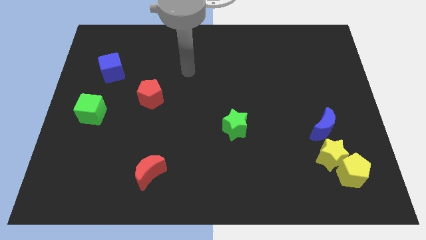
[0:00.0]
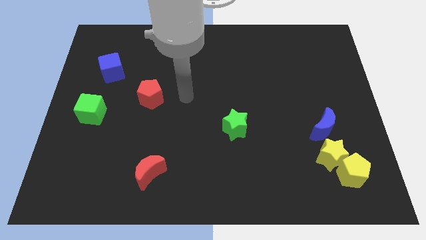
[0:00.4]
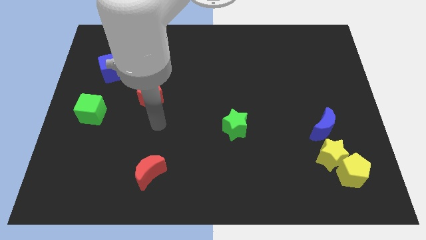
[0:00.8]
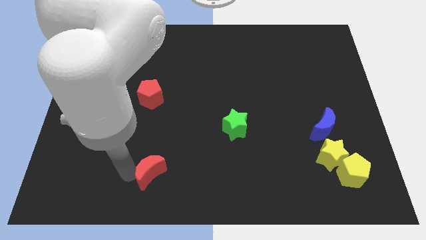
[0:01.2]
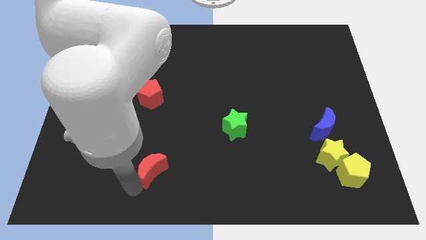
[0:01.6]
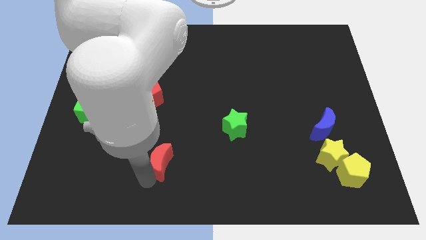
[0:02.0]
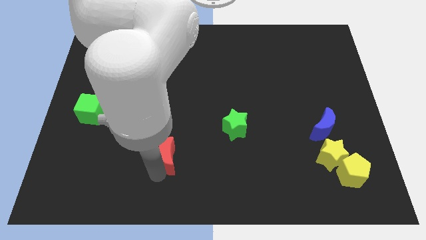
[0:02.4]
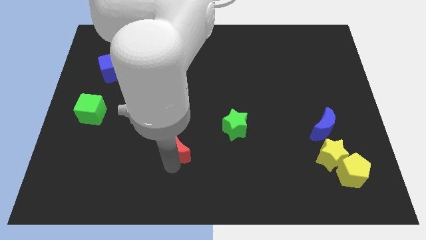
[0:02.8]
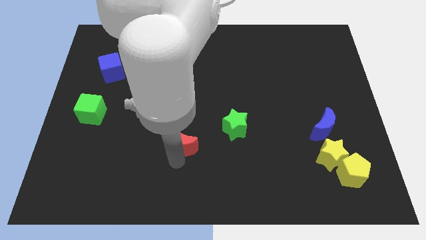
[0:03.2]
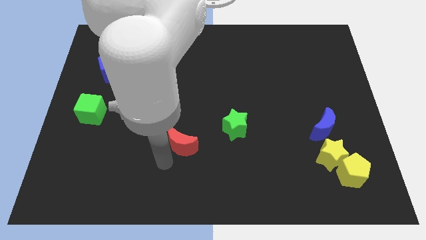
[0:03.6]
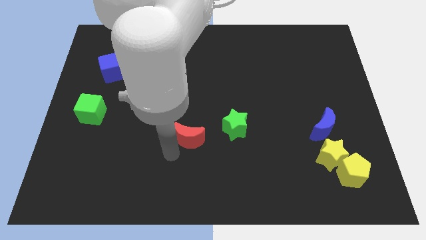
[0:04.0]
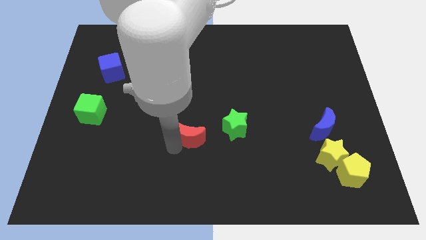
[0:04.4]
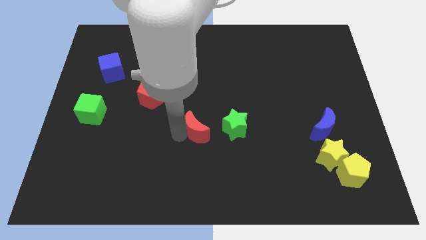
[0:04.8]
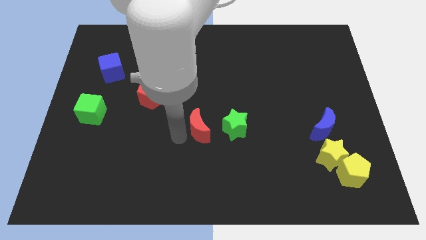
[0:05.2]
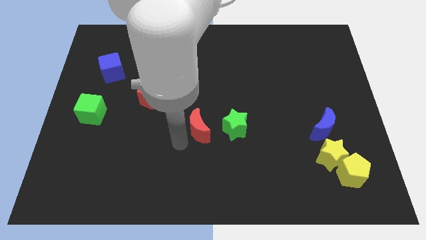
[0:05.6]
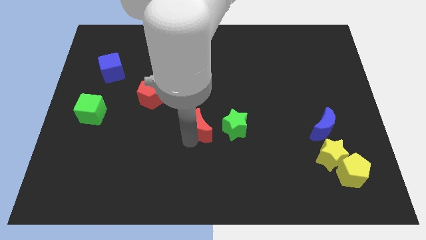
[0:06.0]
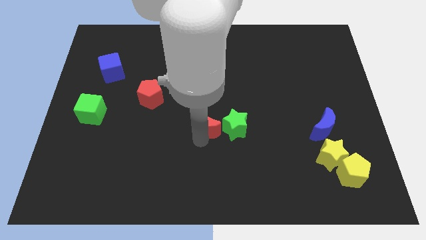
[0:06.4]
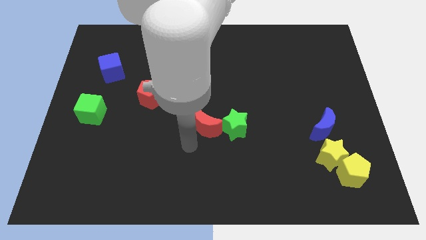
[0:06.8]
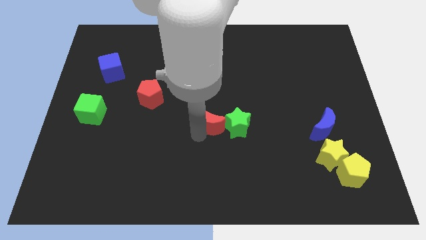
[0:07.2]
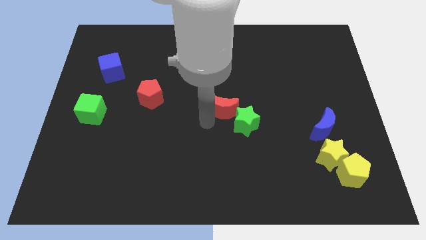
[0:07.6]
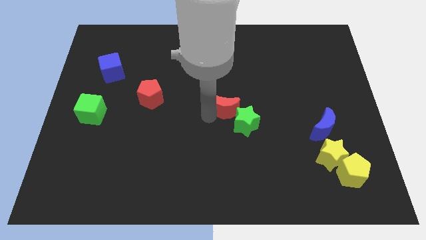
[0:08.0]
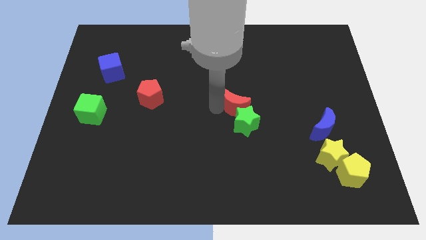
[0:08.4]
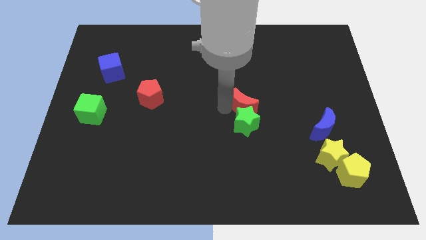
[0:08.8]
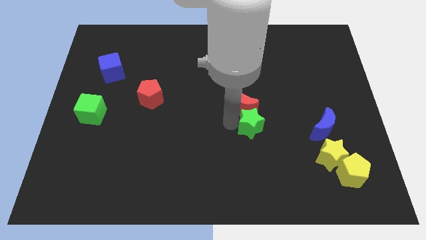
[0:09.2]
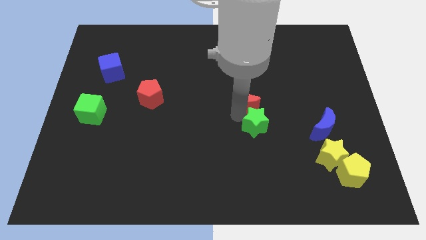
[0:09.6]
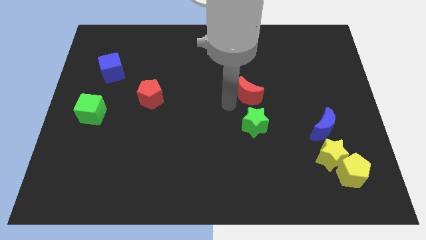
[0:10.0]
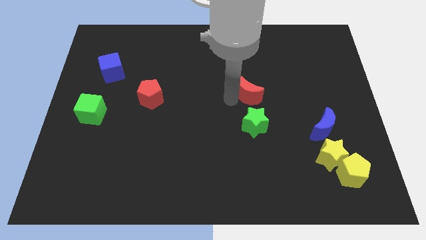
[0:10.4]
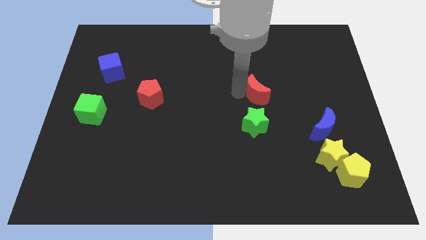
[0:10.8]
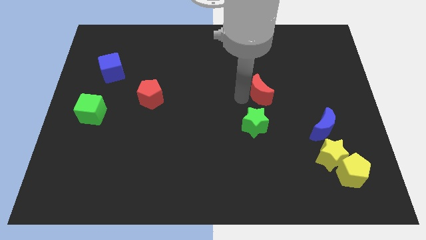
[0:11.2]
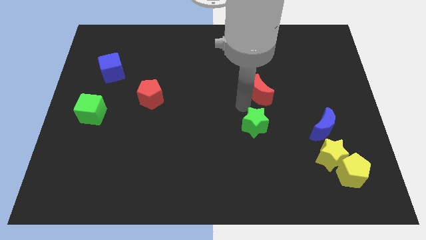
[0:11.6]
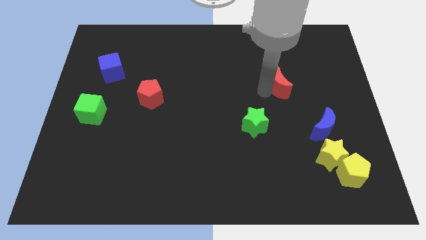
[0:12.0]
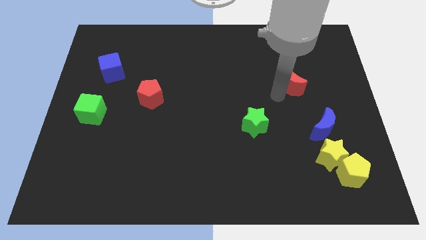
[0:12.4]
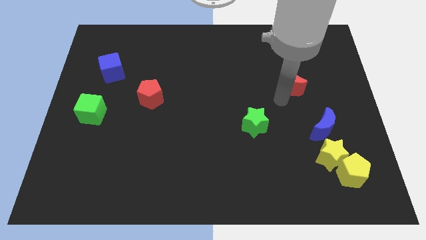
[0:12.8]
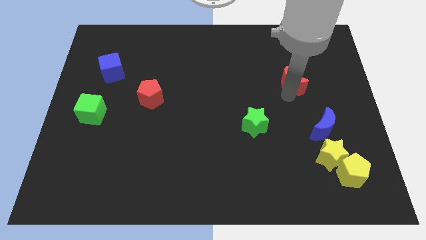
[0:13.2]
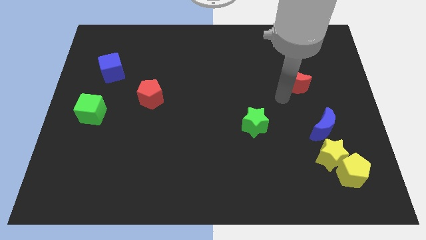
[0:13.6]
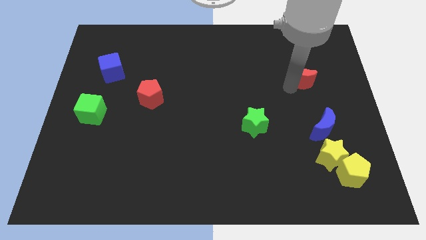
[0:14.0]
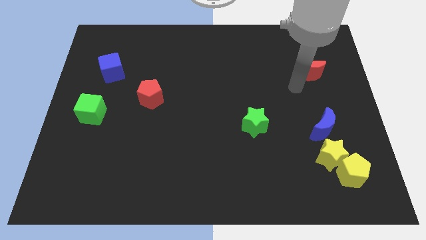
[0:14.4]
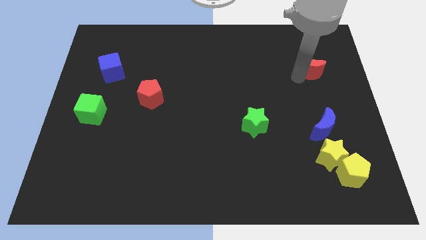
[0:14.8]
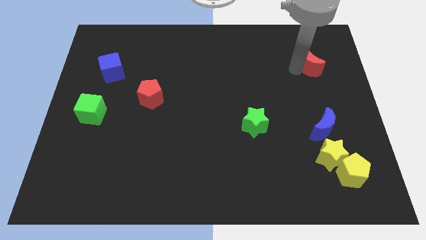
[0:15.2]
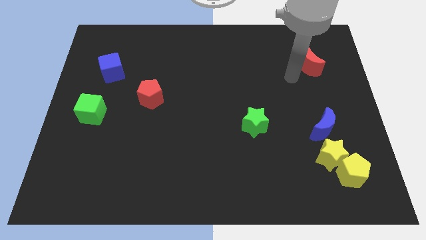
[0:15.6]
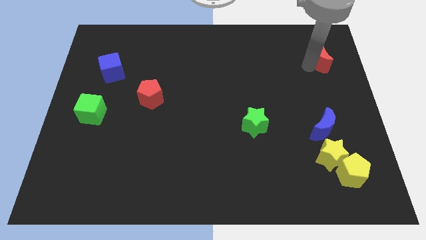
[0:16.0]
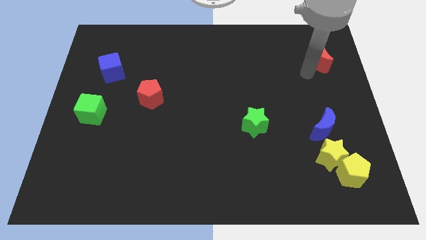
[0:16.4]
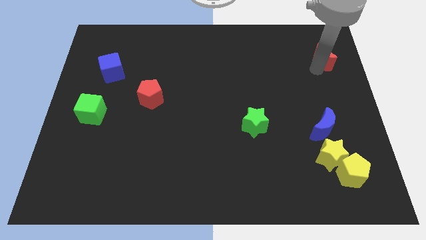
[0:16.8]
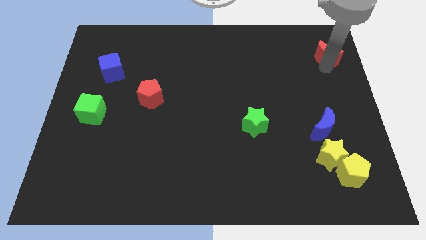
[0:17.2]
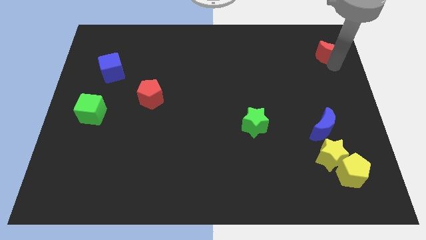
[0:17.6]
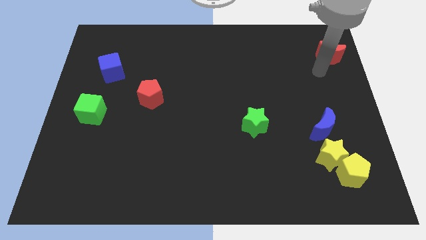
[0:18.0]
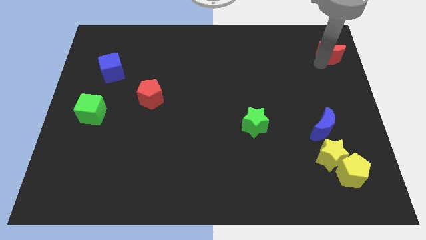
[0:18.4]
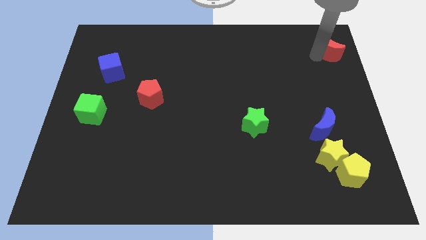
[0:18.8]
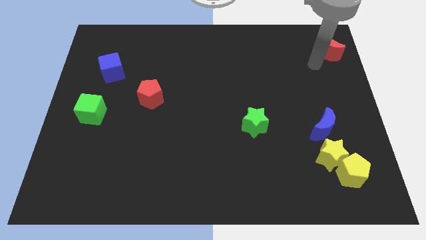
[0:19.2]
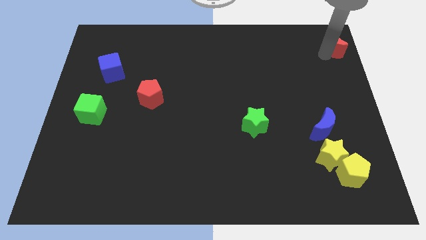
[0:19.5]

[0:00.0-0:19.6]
slide the red moon to the top right corner

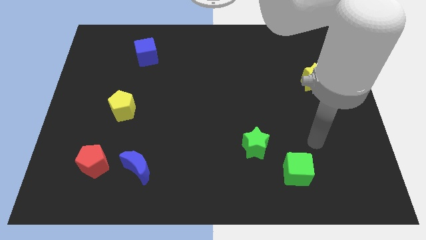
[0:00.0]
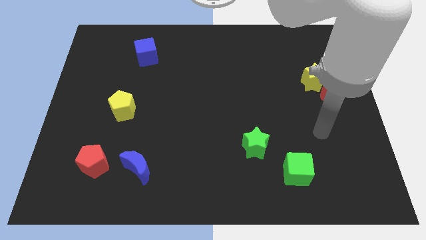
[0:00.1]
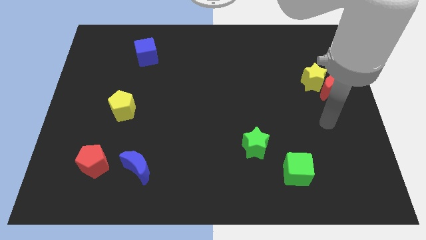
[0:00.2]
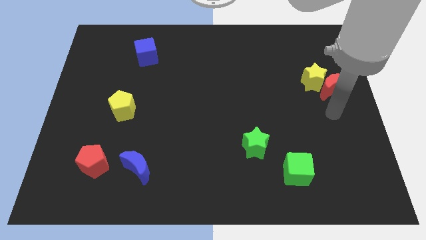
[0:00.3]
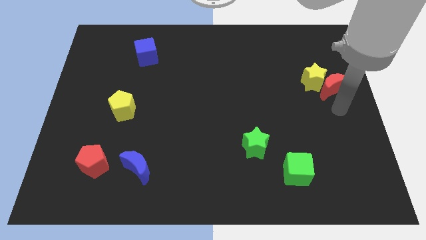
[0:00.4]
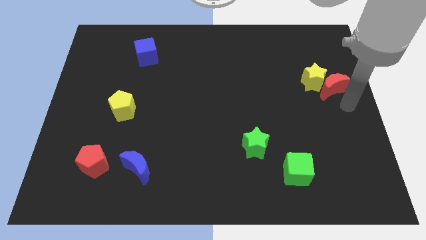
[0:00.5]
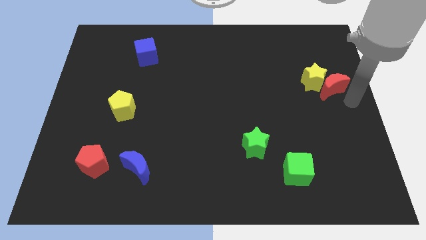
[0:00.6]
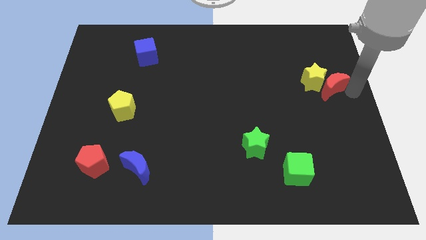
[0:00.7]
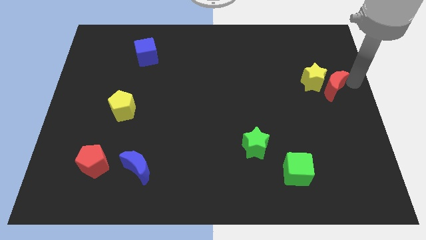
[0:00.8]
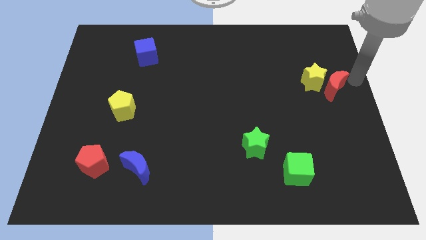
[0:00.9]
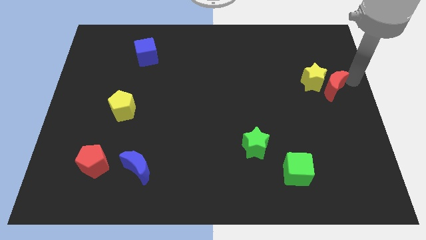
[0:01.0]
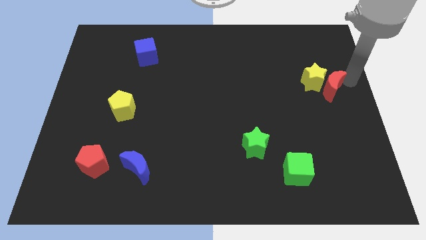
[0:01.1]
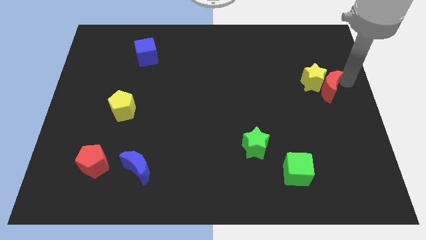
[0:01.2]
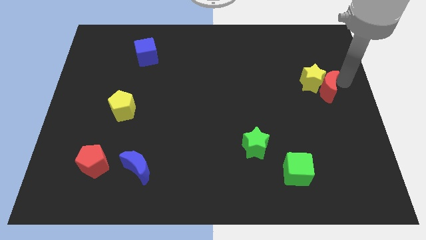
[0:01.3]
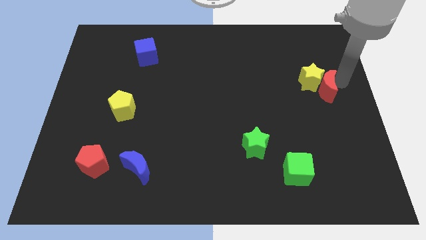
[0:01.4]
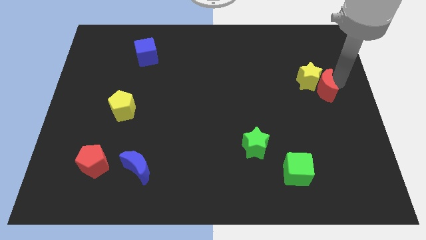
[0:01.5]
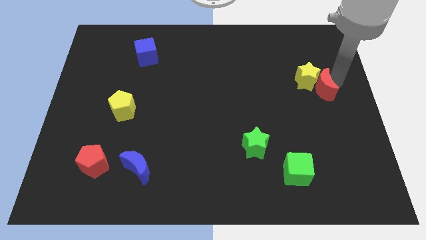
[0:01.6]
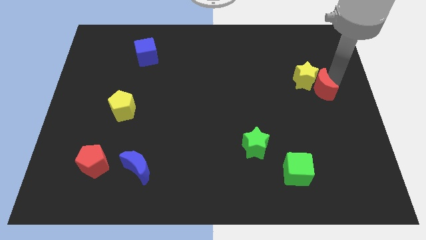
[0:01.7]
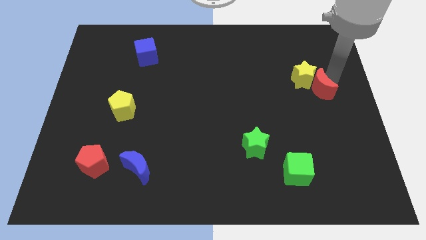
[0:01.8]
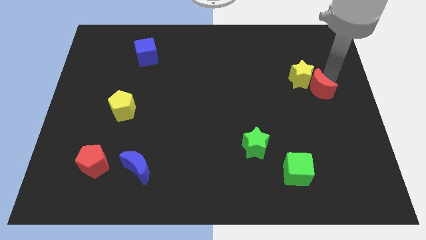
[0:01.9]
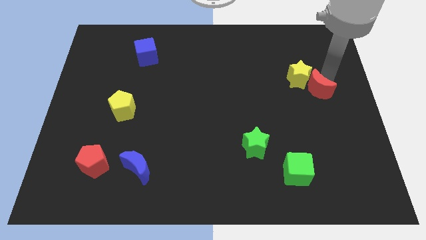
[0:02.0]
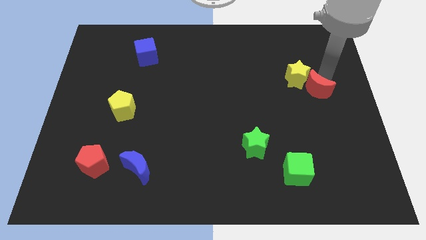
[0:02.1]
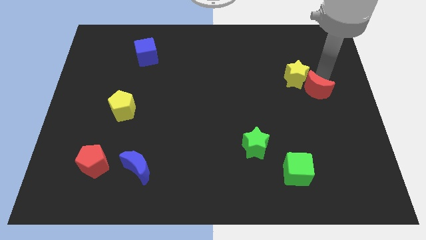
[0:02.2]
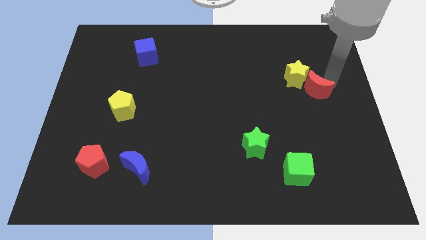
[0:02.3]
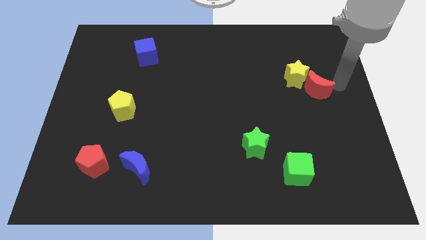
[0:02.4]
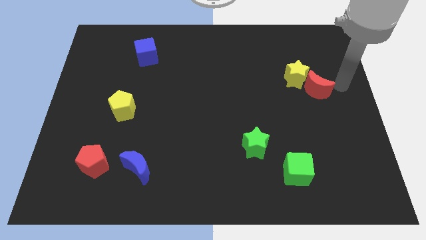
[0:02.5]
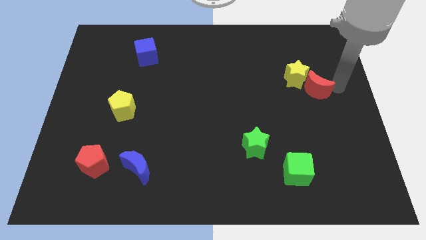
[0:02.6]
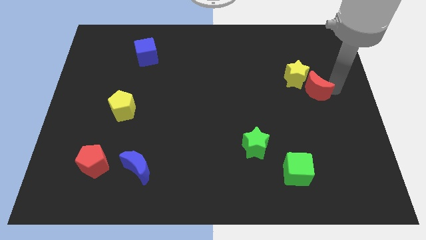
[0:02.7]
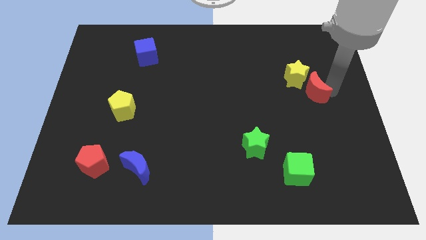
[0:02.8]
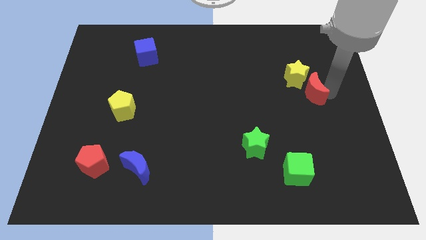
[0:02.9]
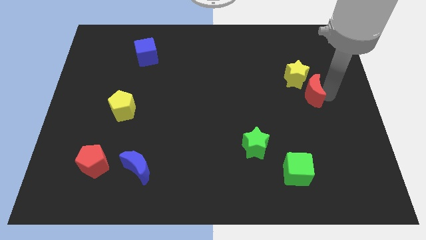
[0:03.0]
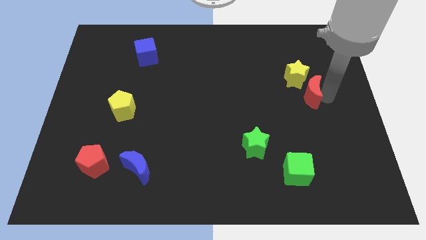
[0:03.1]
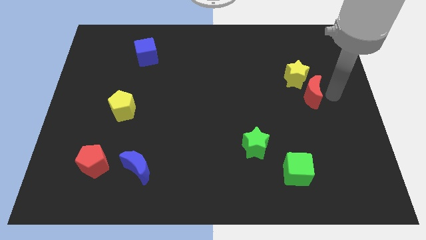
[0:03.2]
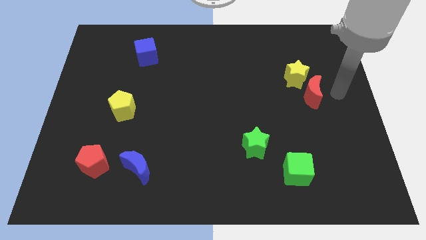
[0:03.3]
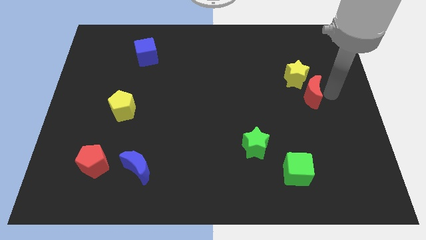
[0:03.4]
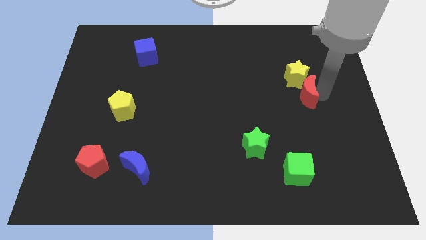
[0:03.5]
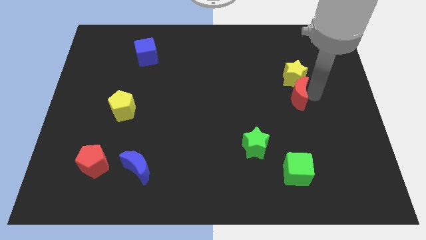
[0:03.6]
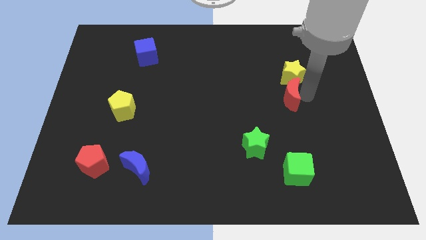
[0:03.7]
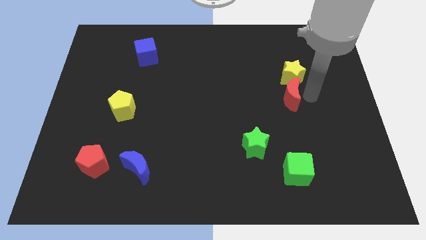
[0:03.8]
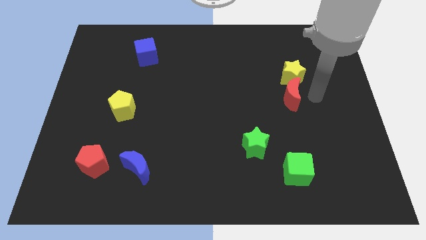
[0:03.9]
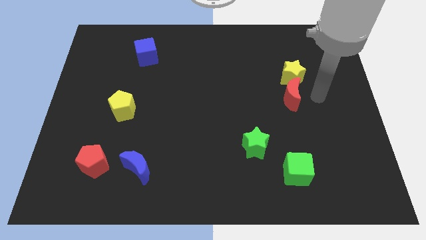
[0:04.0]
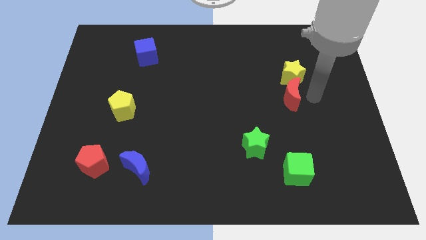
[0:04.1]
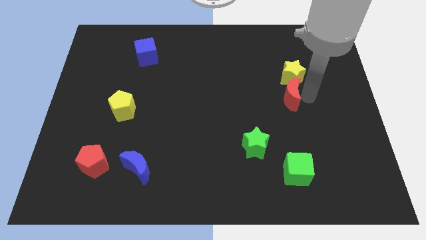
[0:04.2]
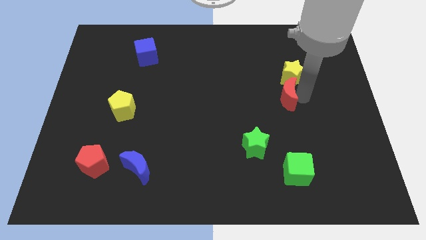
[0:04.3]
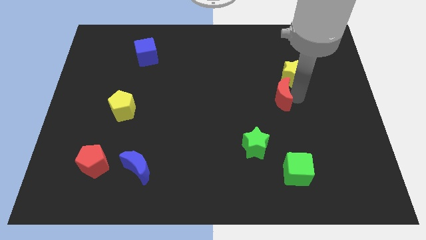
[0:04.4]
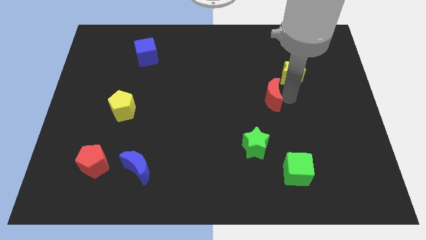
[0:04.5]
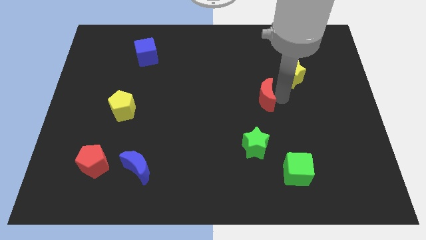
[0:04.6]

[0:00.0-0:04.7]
slide the red moon to the middle
